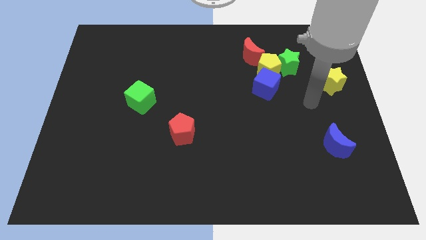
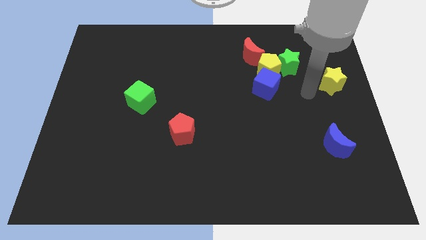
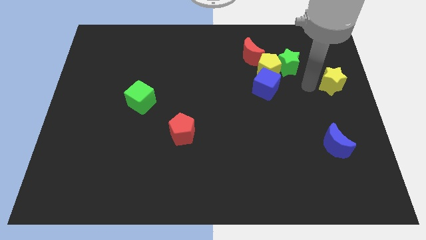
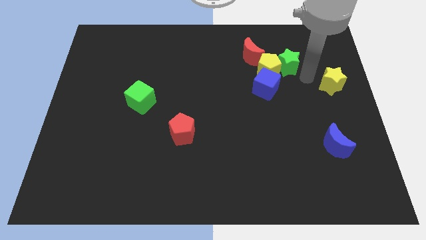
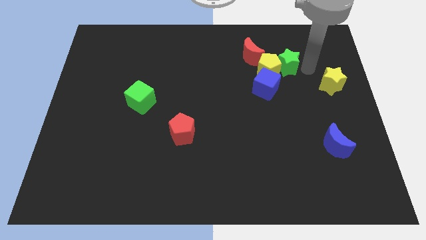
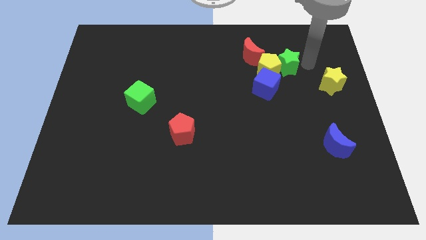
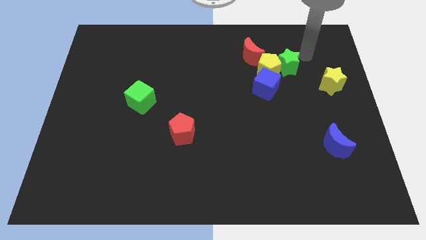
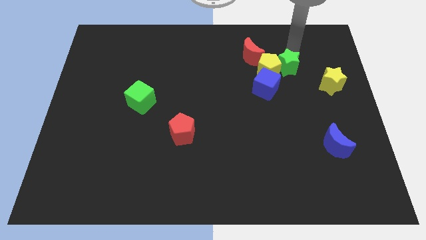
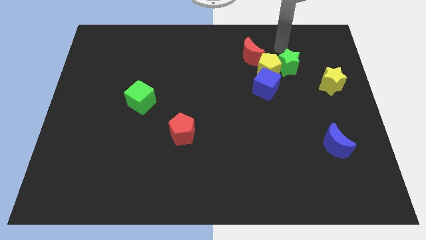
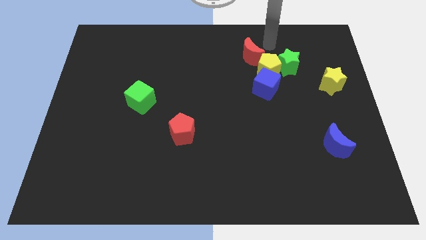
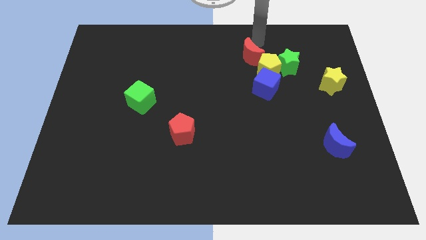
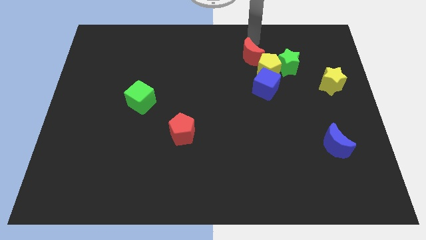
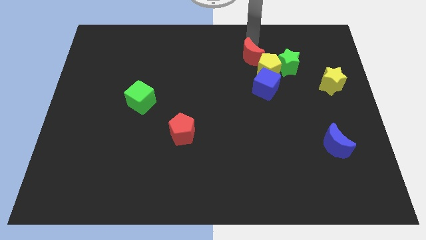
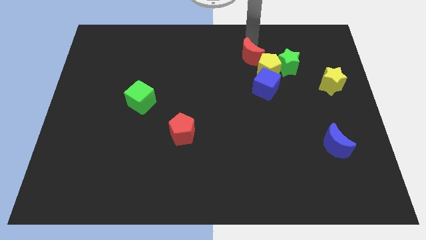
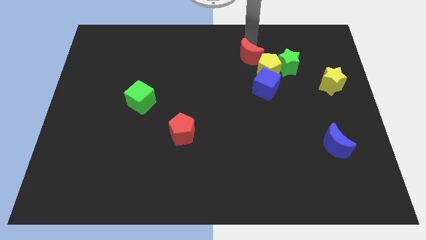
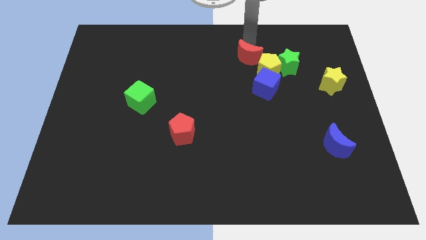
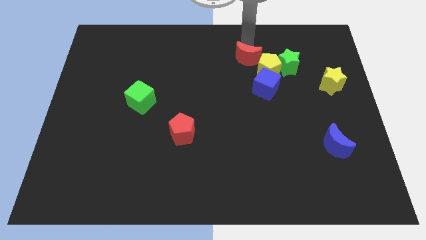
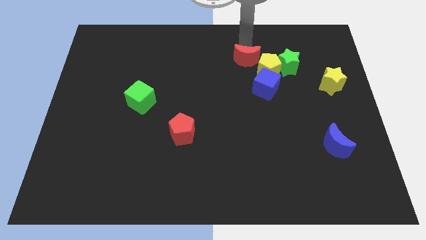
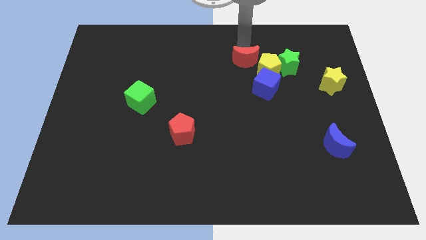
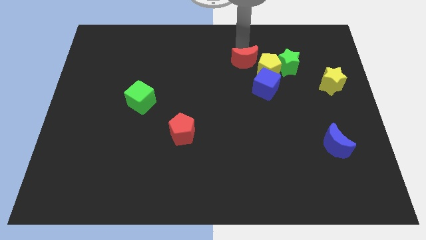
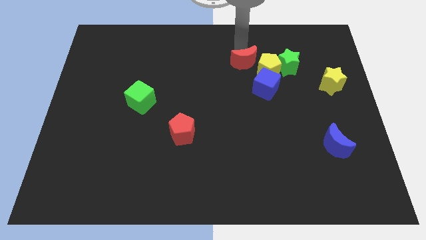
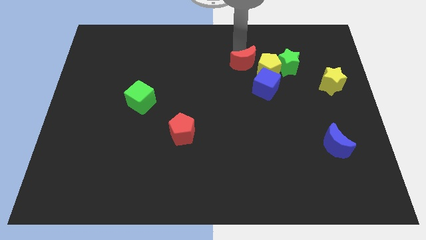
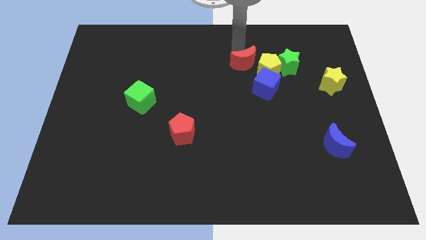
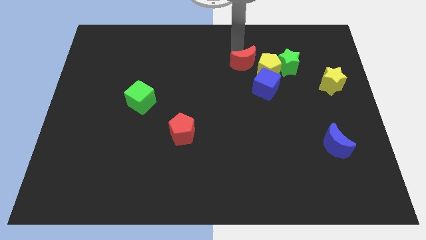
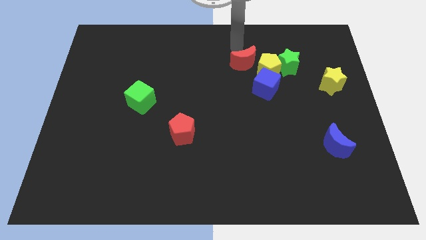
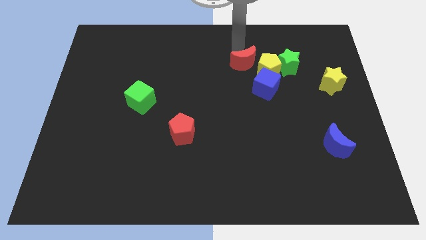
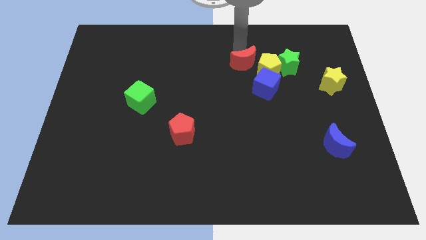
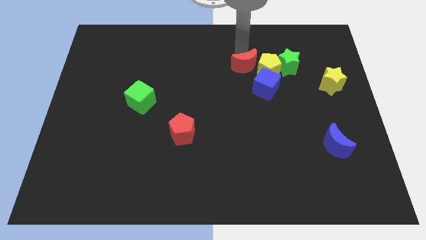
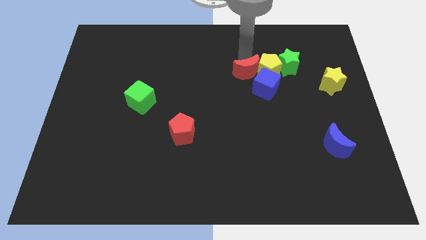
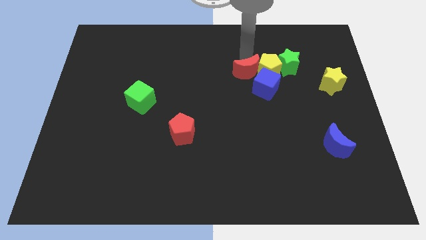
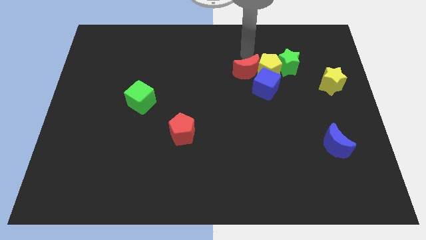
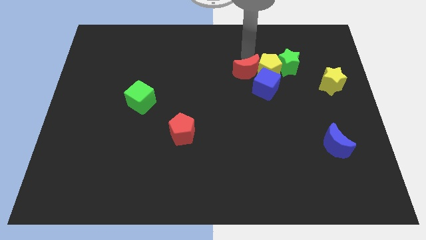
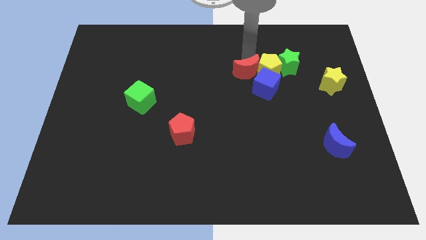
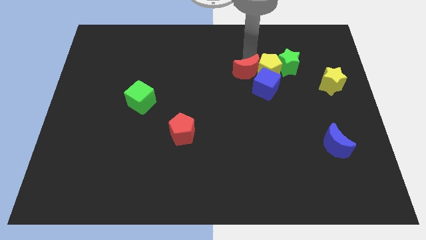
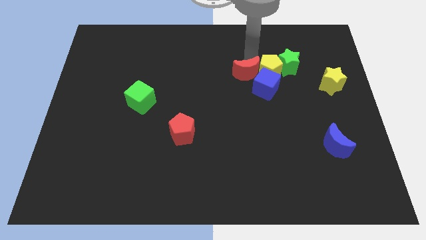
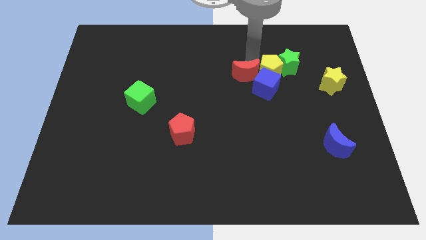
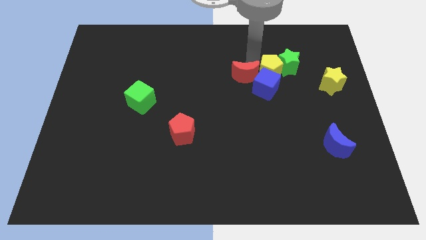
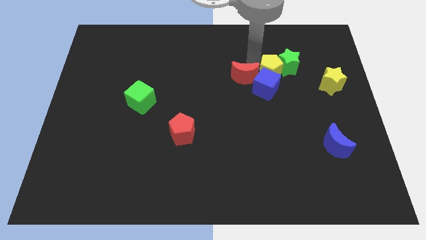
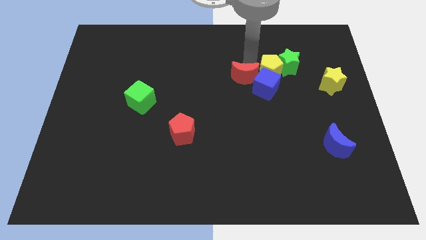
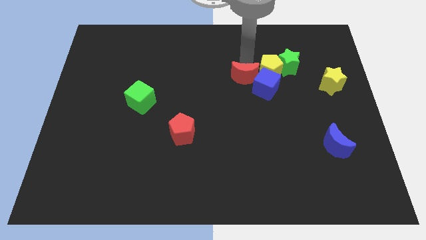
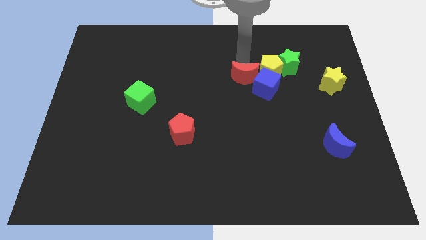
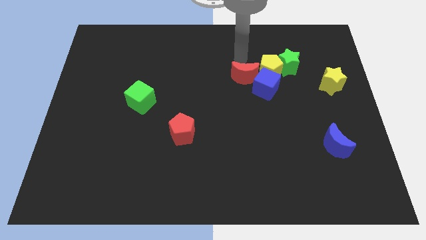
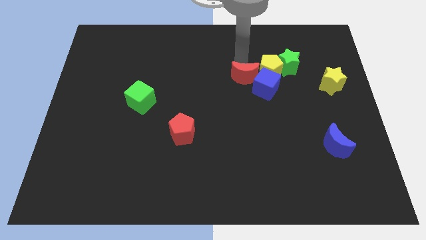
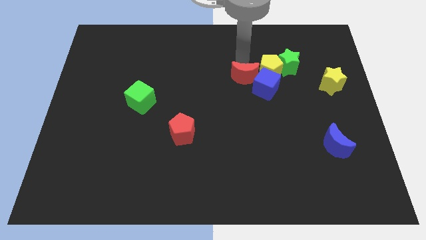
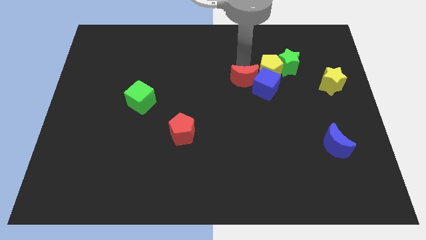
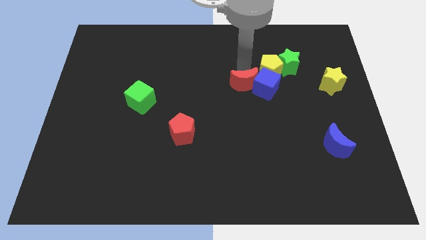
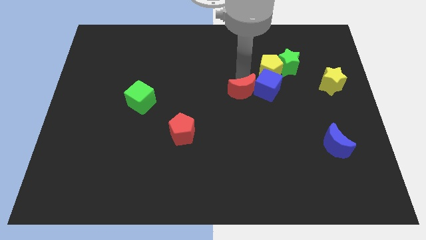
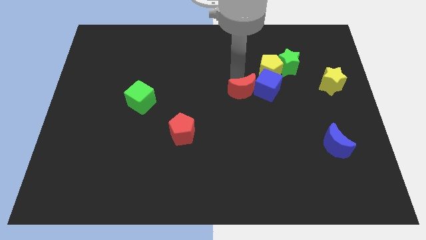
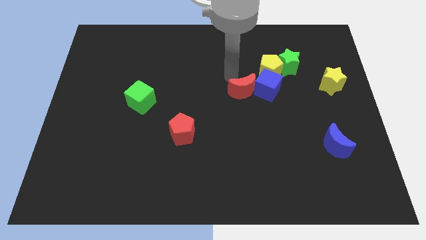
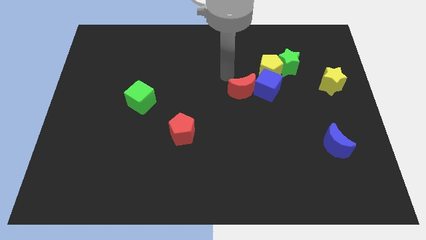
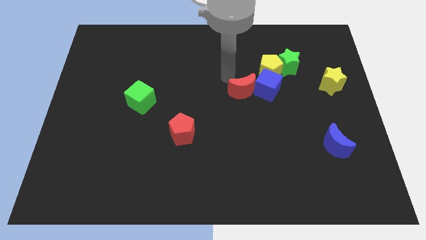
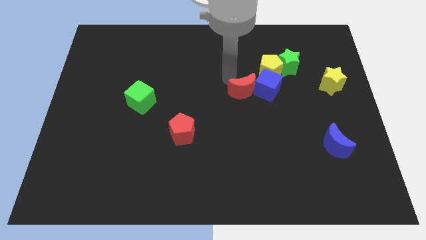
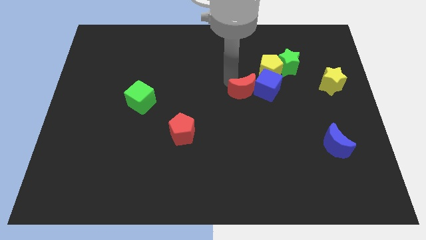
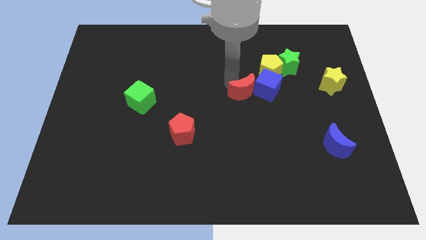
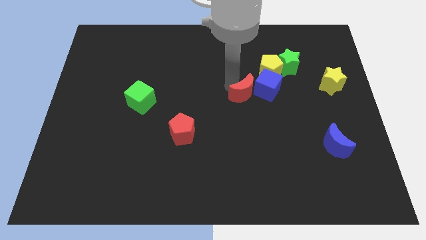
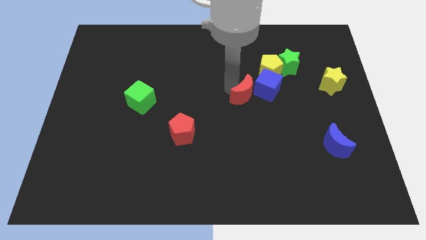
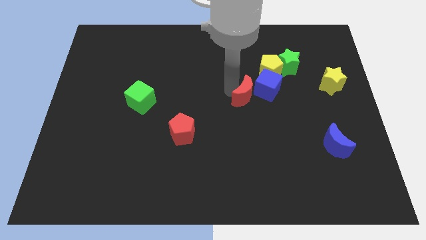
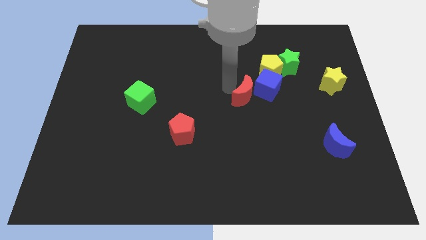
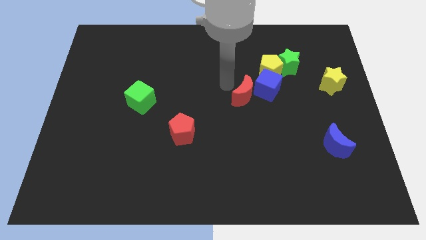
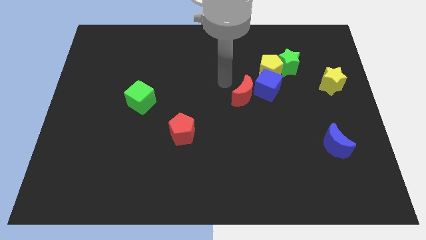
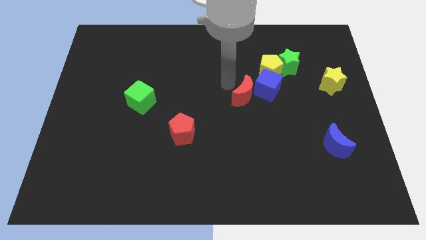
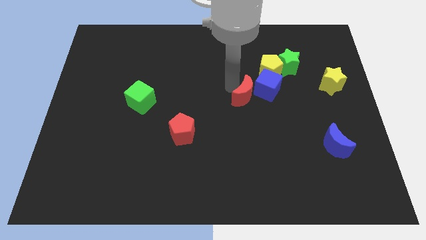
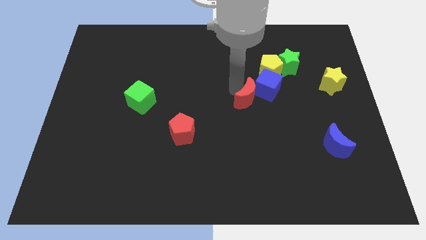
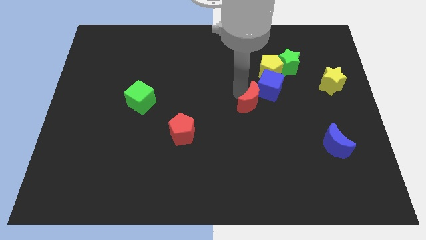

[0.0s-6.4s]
slide the red moon to the bottom side of the blue cube

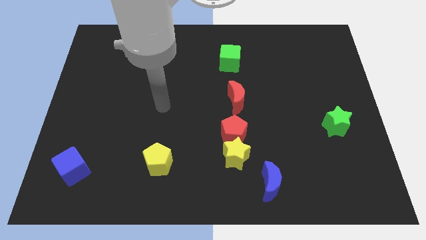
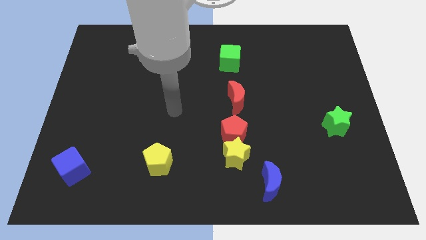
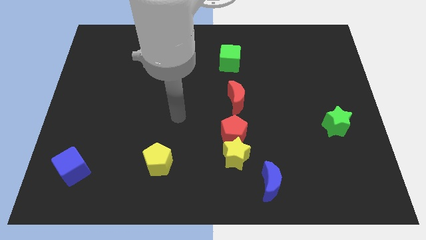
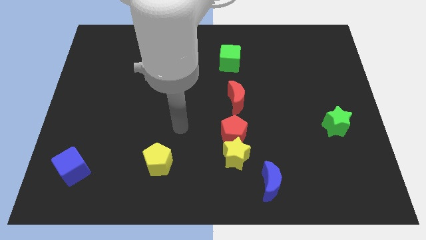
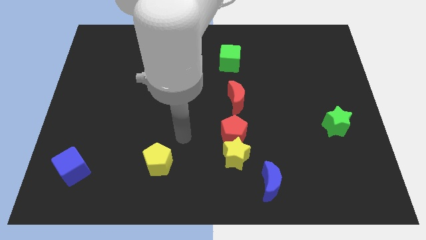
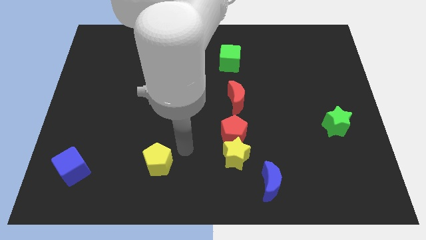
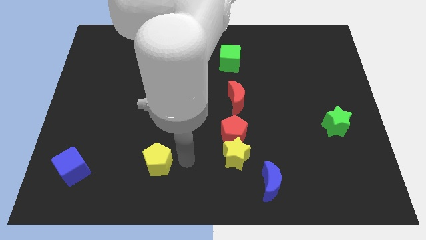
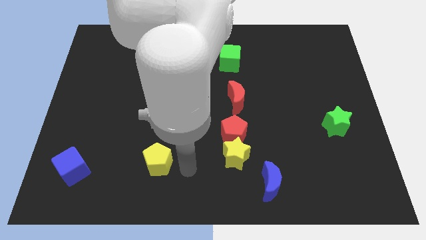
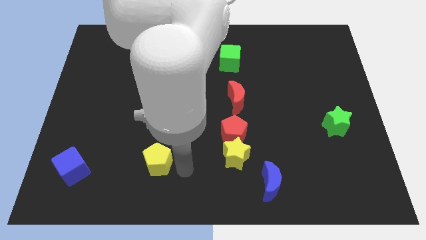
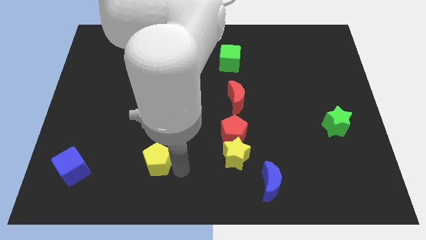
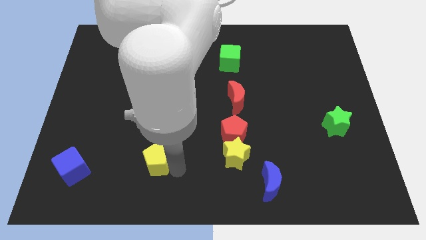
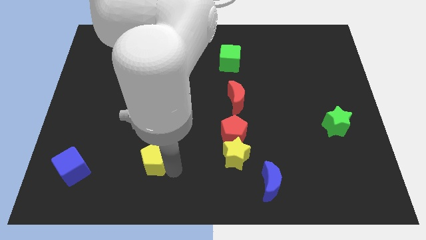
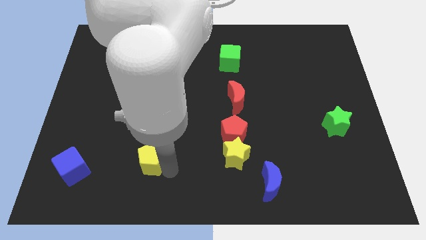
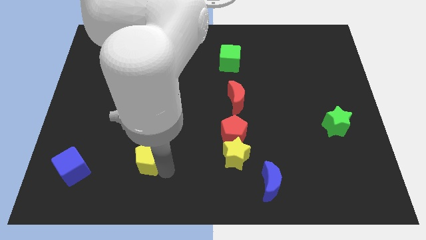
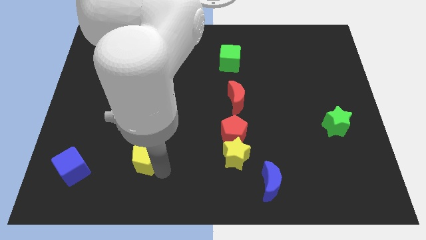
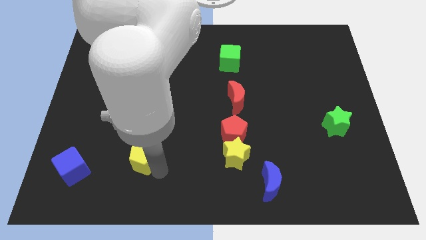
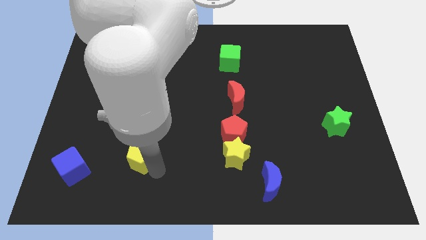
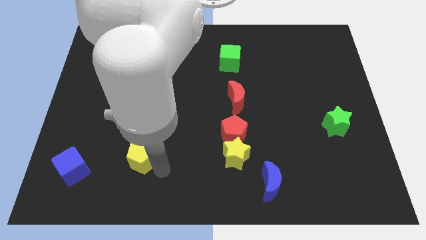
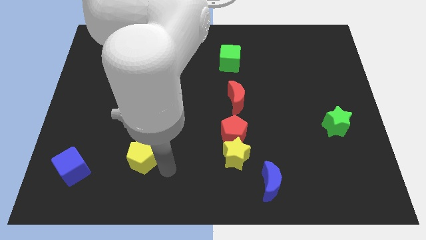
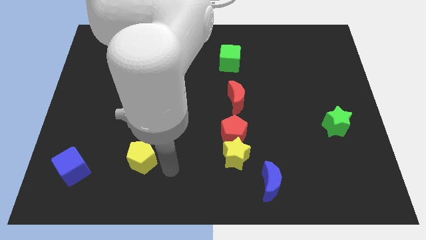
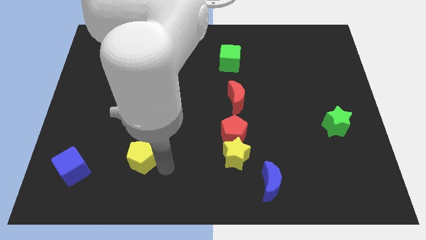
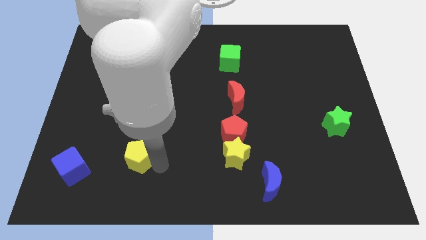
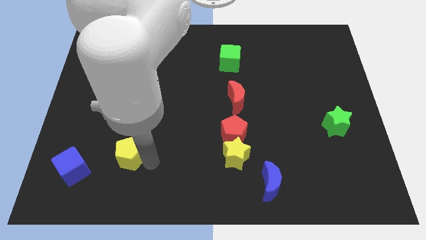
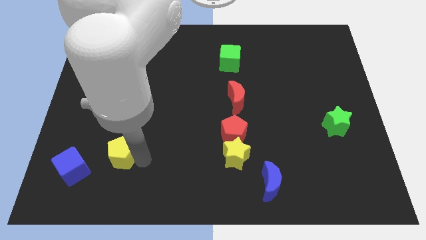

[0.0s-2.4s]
move the yellow pentagon to the top right side of the blue cube
